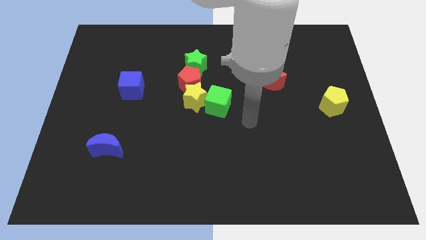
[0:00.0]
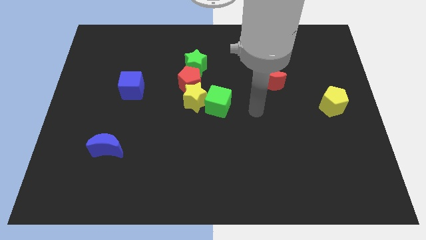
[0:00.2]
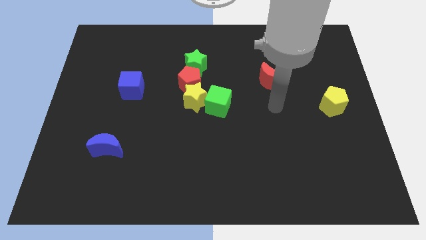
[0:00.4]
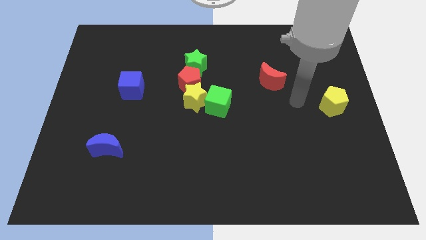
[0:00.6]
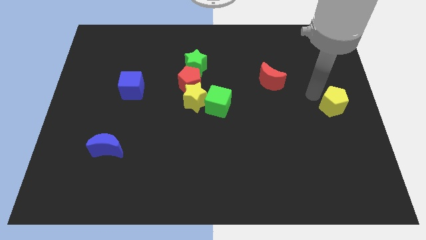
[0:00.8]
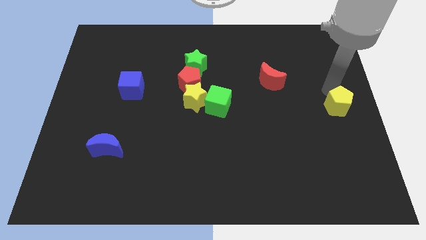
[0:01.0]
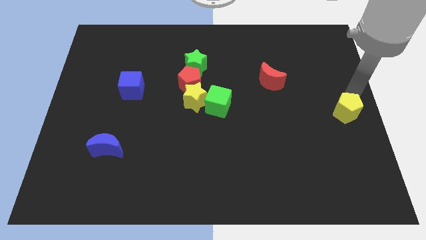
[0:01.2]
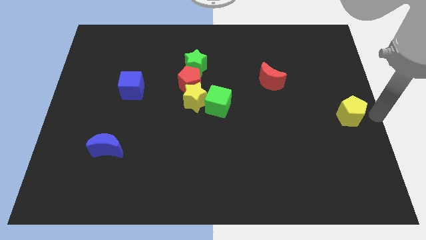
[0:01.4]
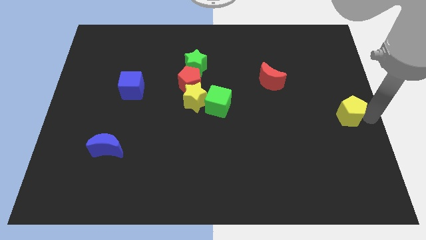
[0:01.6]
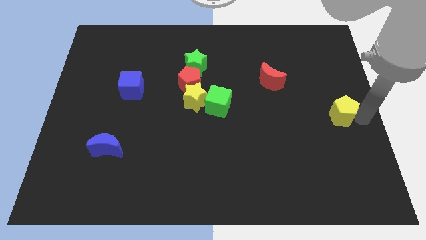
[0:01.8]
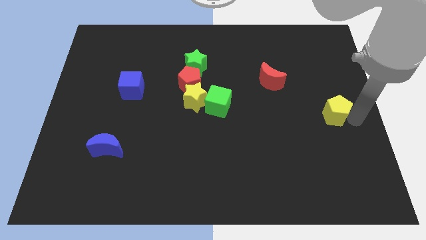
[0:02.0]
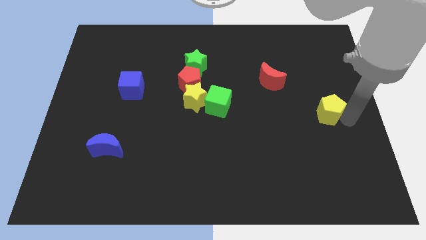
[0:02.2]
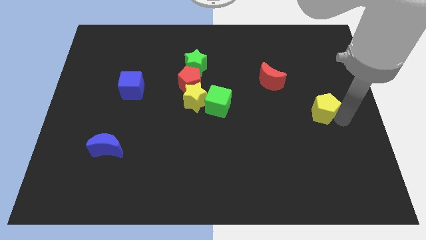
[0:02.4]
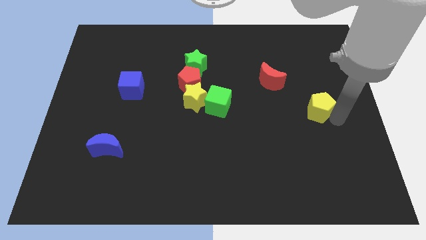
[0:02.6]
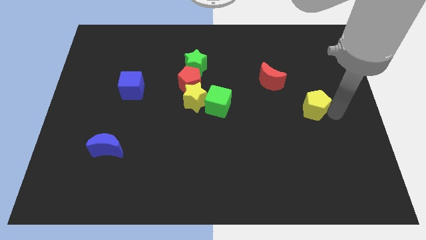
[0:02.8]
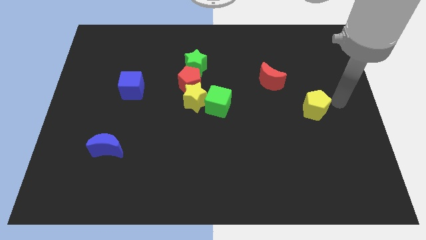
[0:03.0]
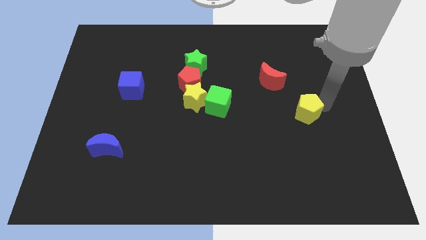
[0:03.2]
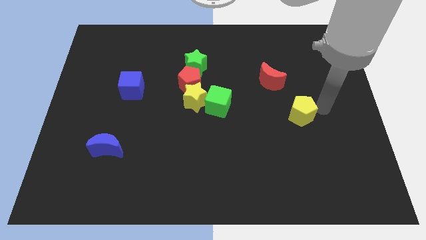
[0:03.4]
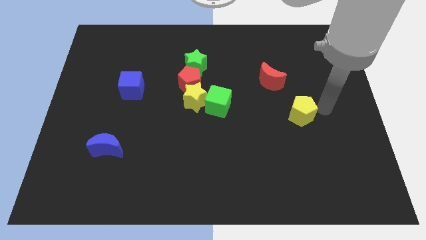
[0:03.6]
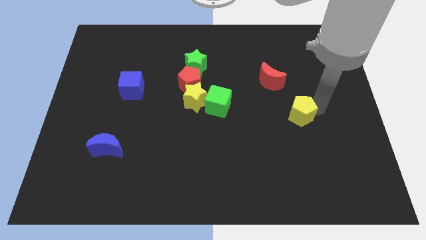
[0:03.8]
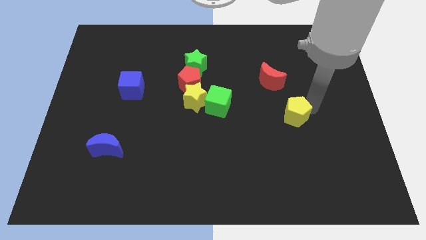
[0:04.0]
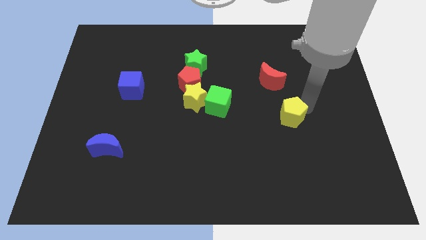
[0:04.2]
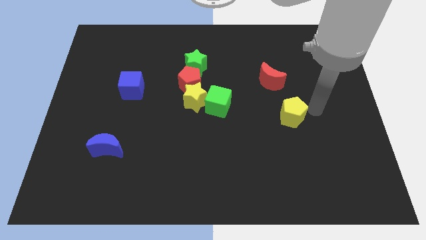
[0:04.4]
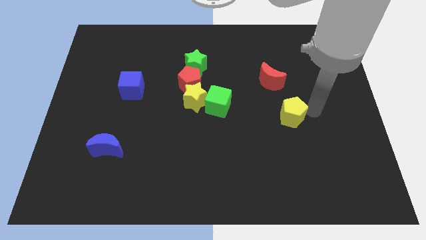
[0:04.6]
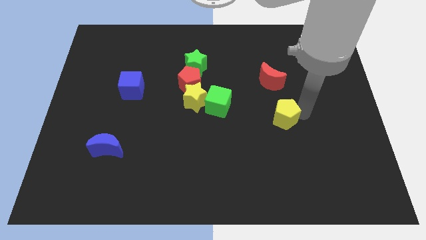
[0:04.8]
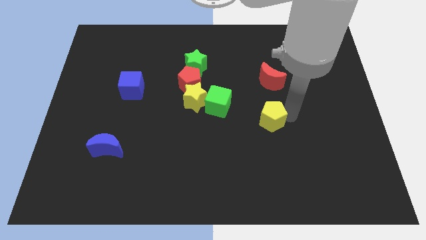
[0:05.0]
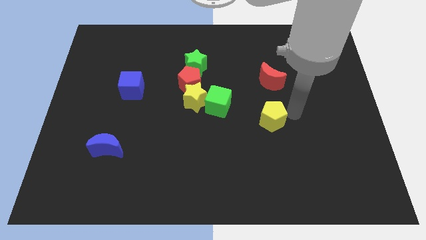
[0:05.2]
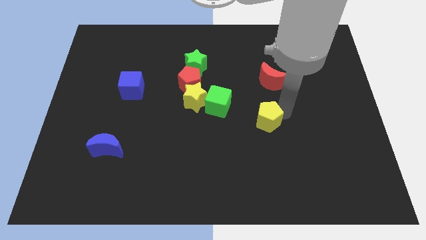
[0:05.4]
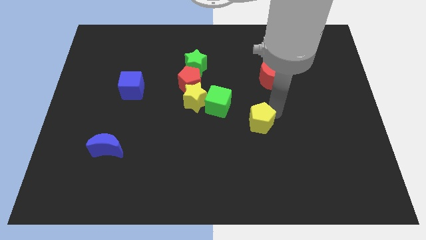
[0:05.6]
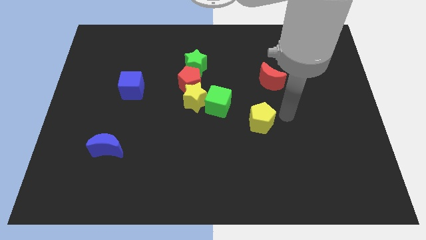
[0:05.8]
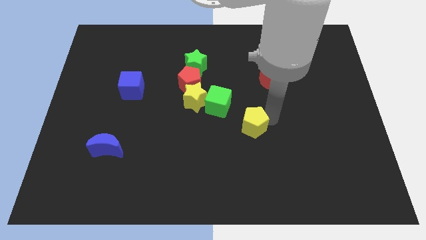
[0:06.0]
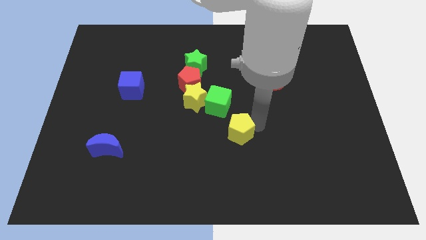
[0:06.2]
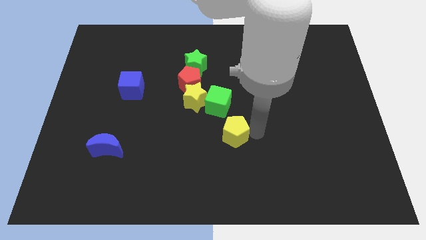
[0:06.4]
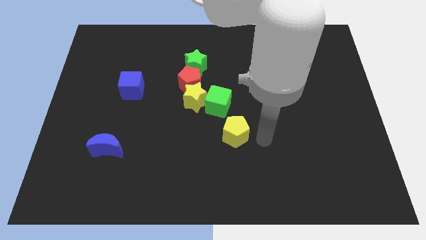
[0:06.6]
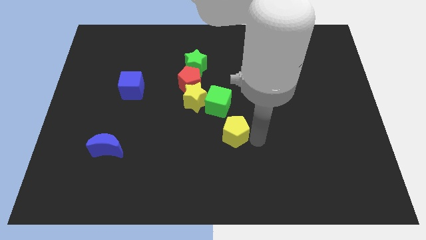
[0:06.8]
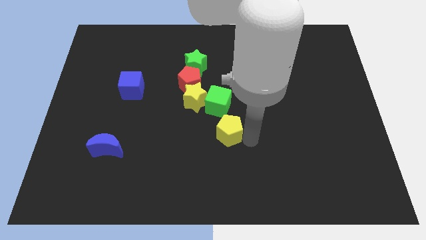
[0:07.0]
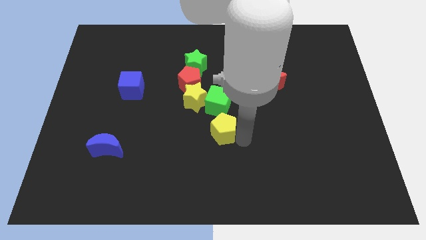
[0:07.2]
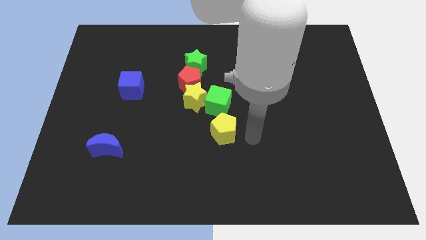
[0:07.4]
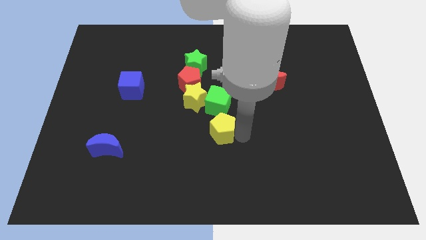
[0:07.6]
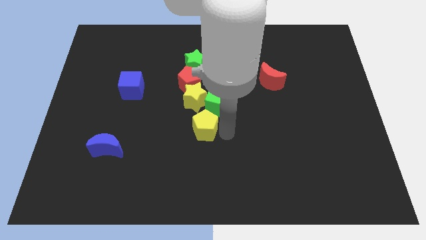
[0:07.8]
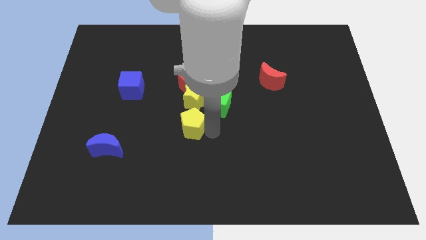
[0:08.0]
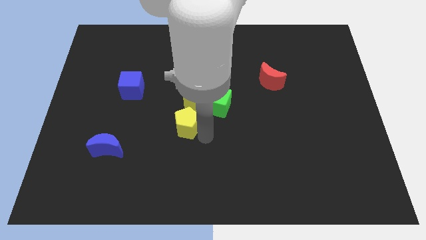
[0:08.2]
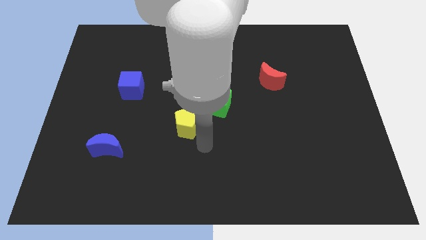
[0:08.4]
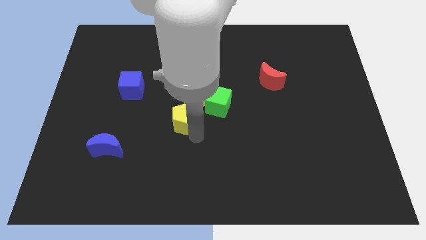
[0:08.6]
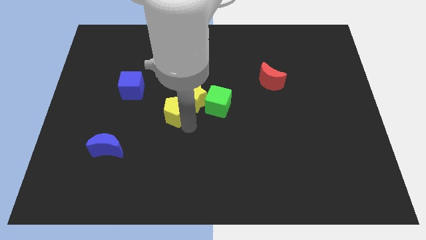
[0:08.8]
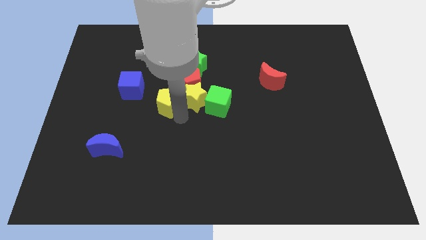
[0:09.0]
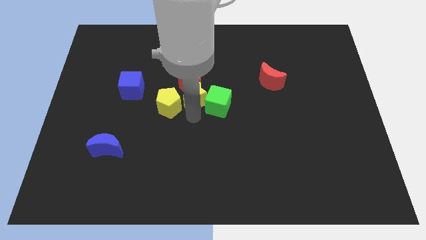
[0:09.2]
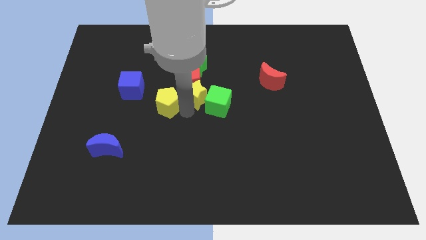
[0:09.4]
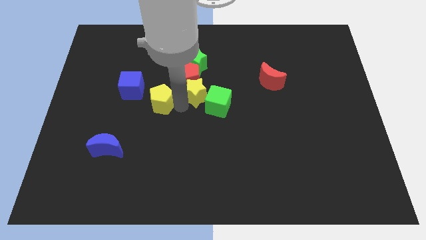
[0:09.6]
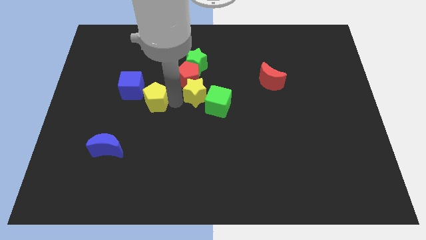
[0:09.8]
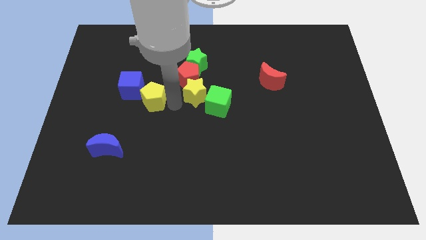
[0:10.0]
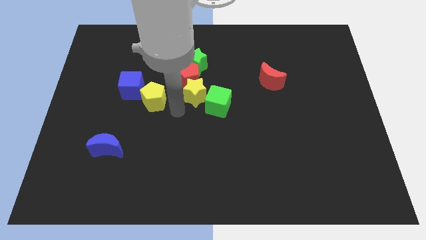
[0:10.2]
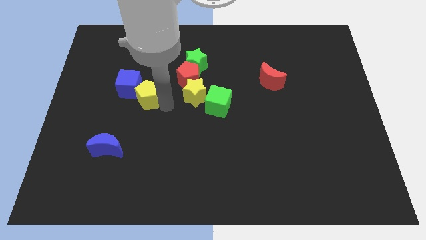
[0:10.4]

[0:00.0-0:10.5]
push the yellow pentagon to the blue cube
